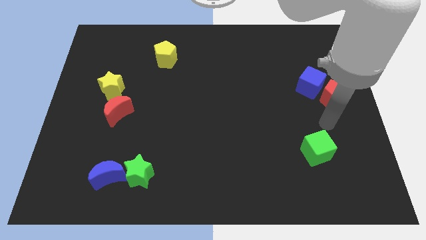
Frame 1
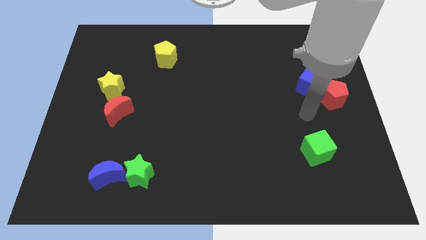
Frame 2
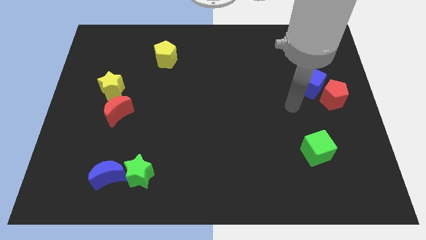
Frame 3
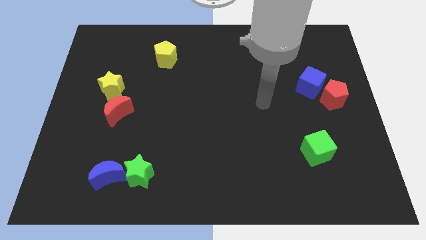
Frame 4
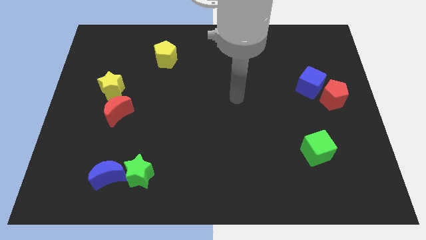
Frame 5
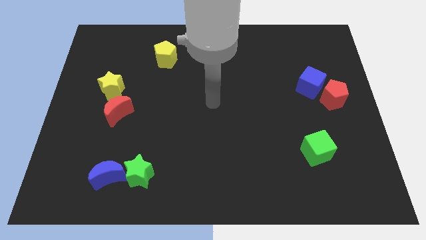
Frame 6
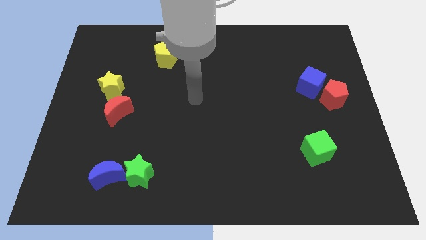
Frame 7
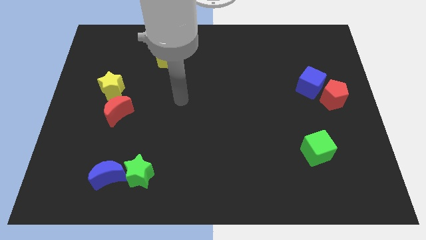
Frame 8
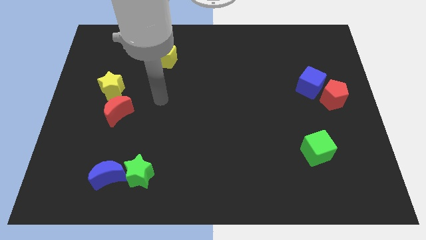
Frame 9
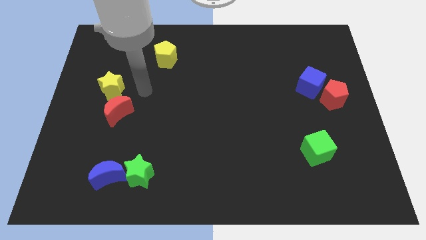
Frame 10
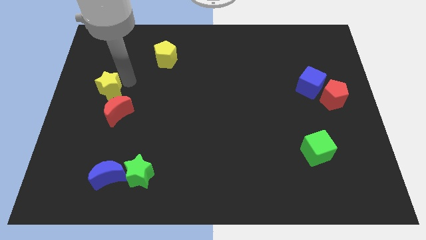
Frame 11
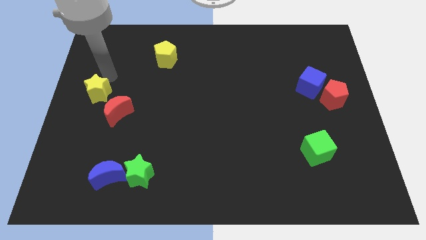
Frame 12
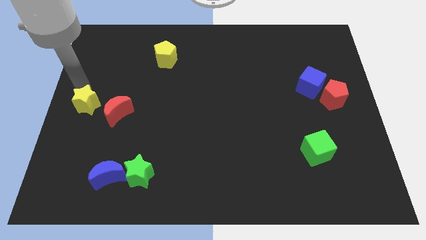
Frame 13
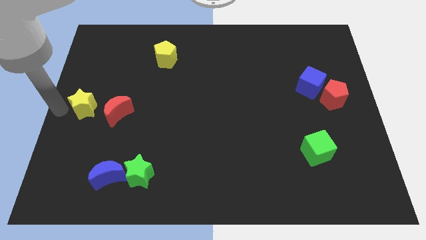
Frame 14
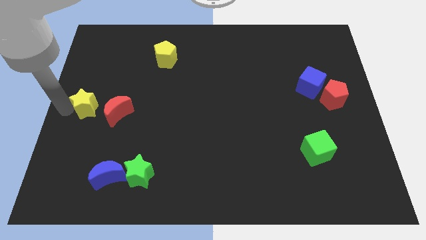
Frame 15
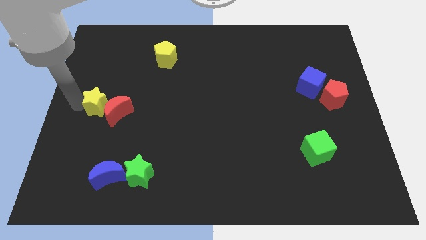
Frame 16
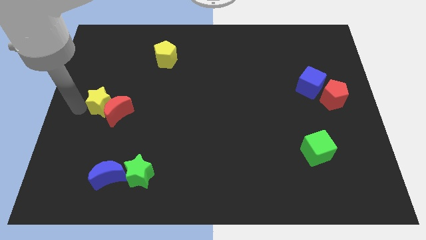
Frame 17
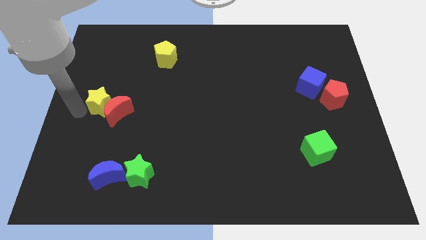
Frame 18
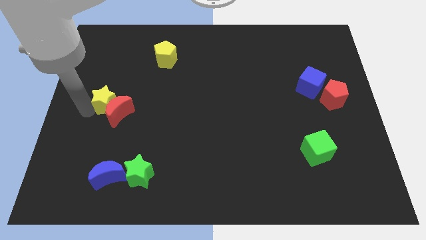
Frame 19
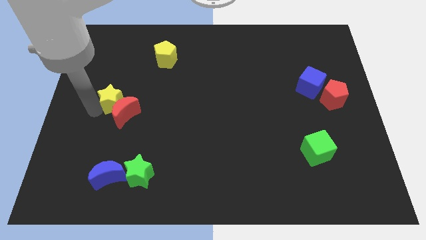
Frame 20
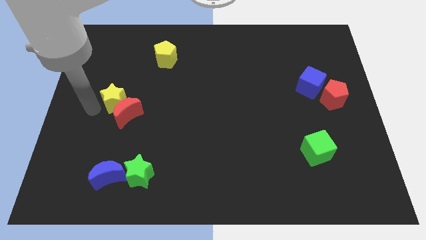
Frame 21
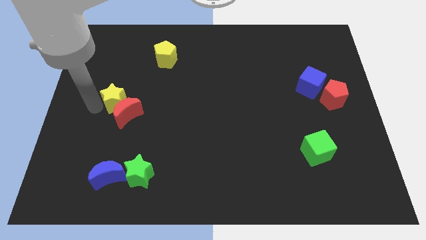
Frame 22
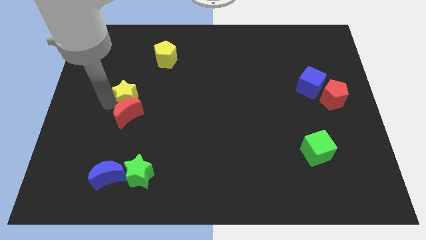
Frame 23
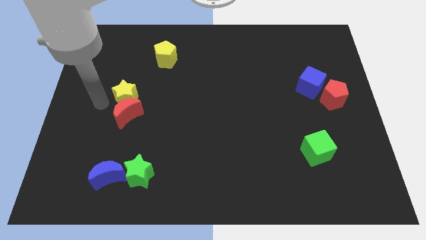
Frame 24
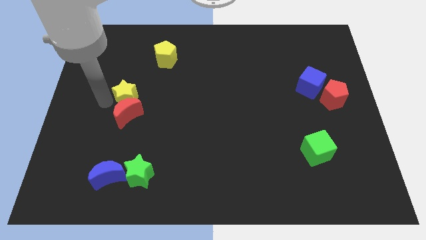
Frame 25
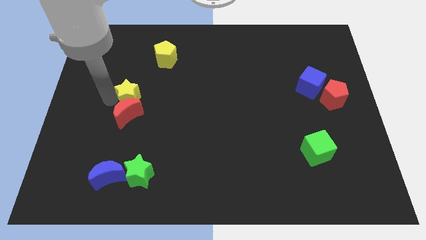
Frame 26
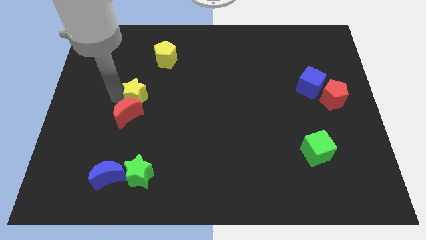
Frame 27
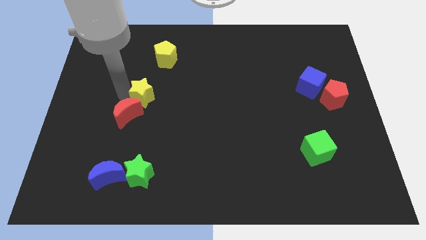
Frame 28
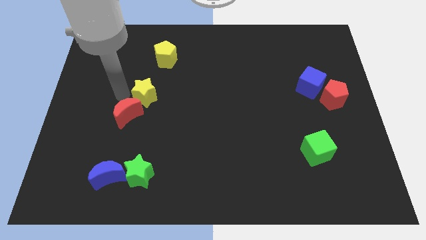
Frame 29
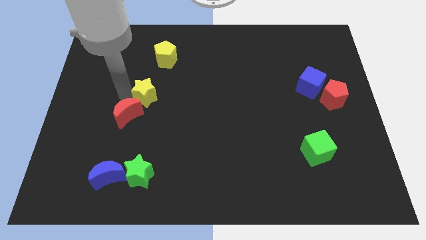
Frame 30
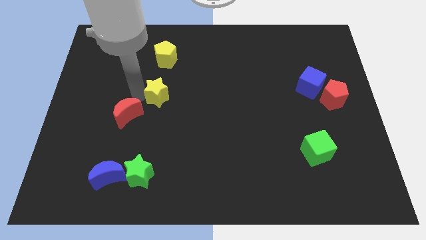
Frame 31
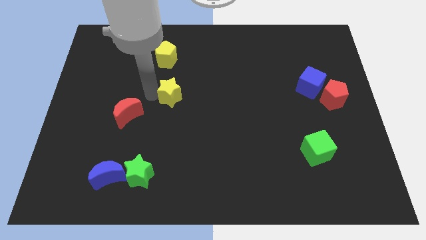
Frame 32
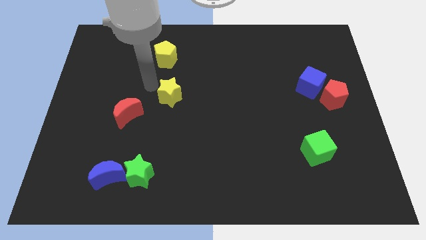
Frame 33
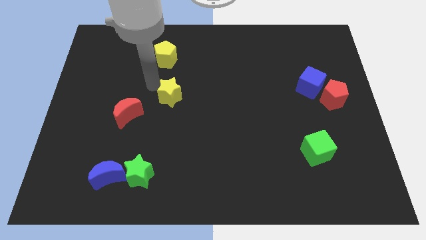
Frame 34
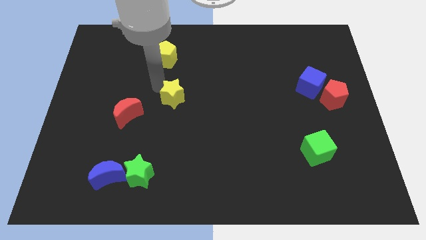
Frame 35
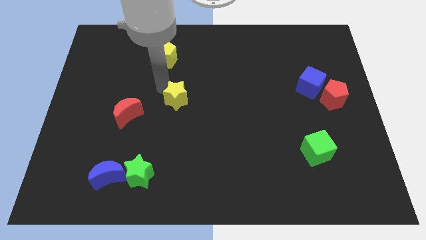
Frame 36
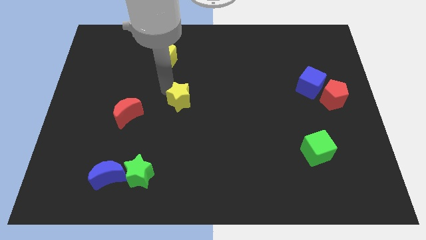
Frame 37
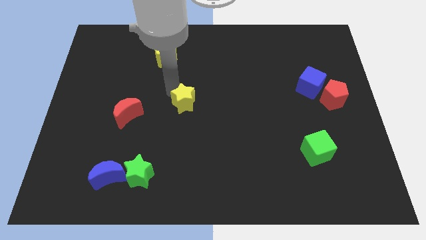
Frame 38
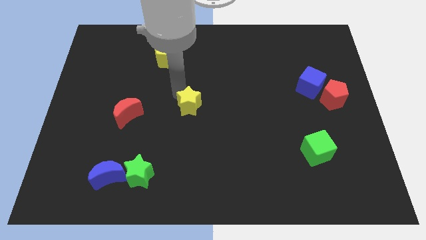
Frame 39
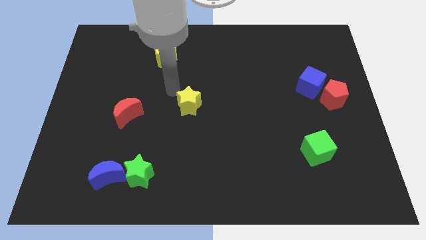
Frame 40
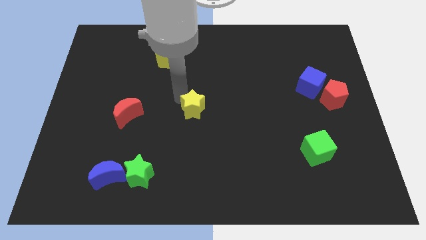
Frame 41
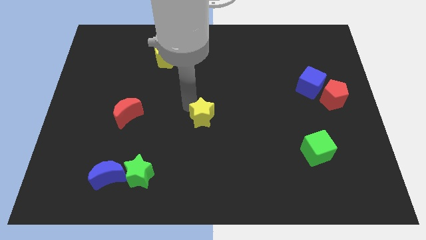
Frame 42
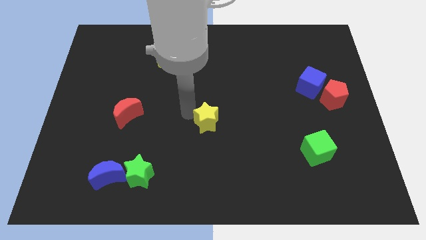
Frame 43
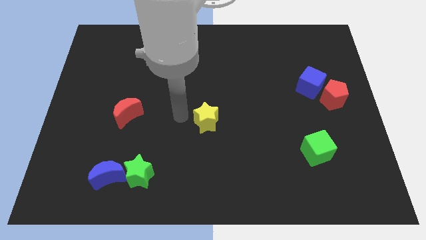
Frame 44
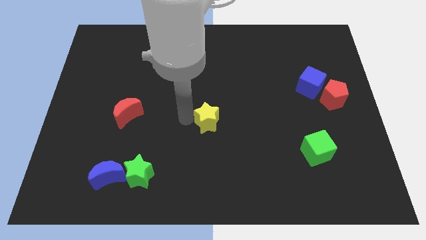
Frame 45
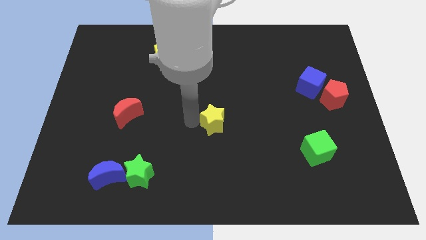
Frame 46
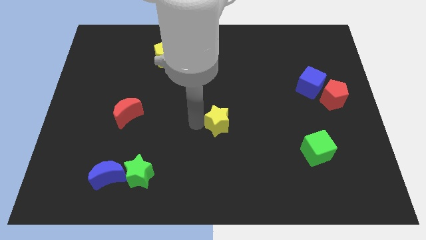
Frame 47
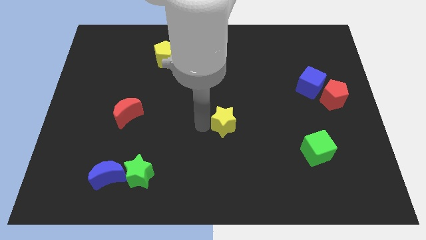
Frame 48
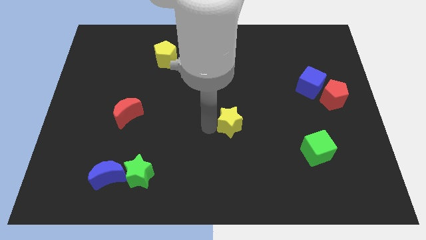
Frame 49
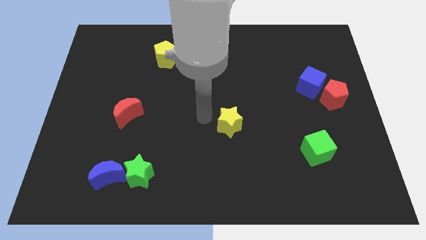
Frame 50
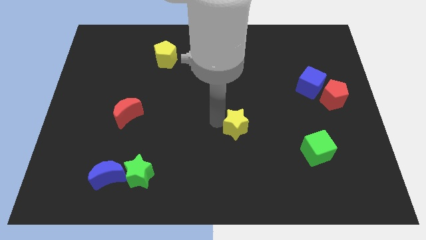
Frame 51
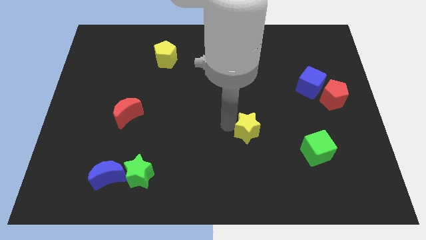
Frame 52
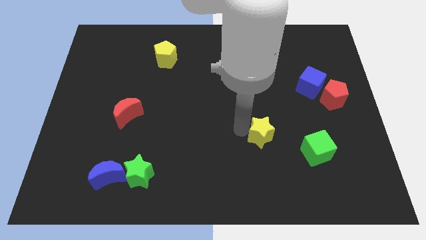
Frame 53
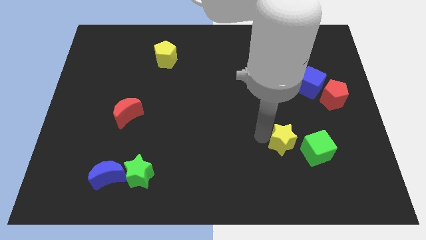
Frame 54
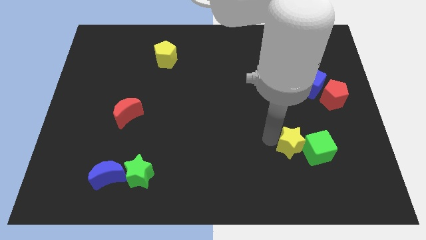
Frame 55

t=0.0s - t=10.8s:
put the yellow star towards the green cube

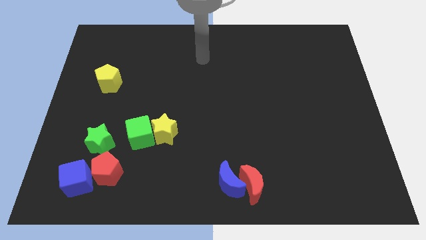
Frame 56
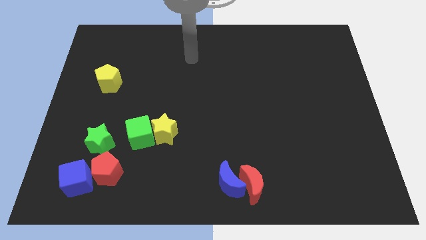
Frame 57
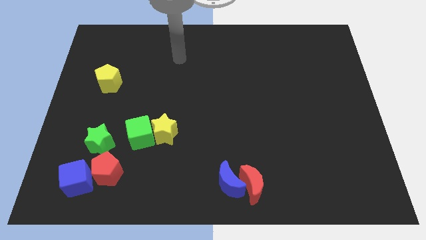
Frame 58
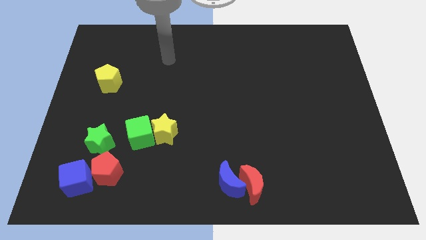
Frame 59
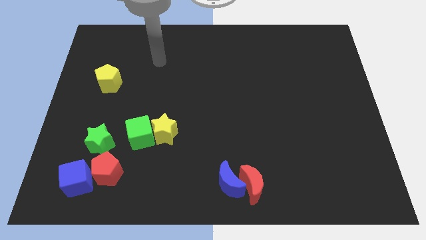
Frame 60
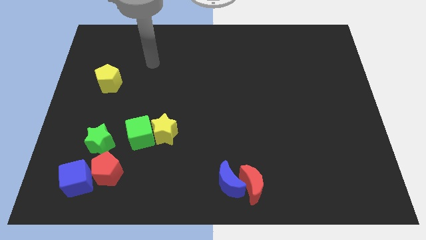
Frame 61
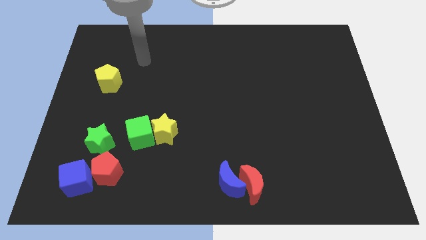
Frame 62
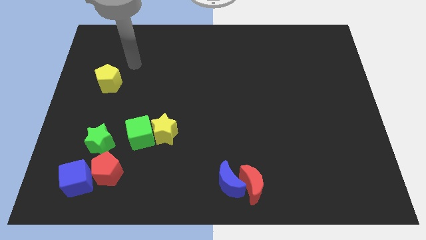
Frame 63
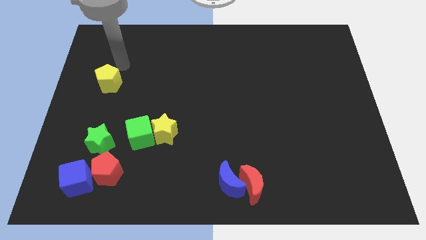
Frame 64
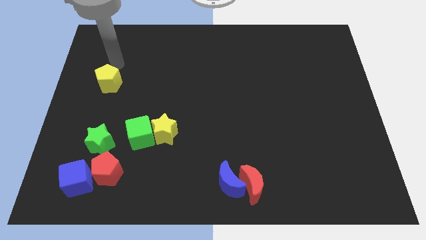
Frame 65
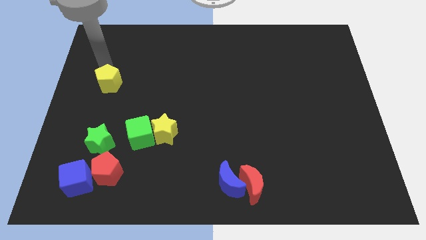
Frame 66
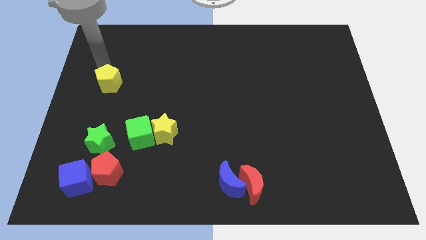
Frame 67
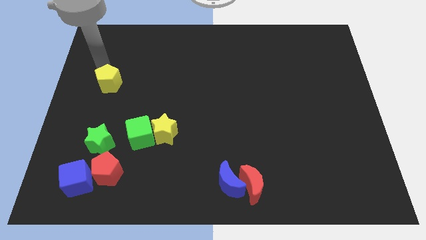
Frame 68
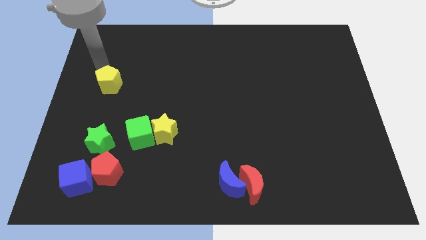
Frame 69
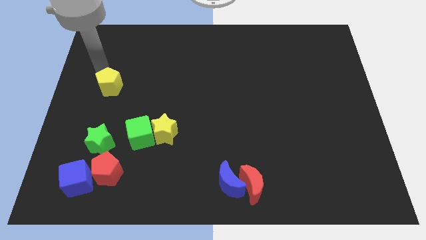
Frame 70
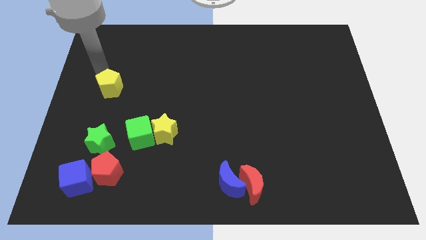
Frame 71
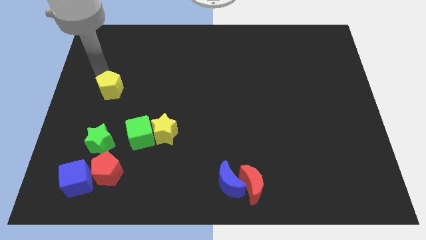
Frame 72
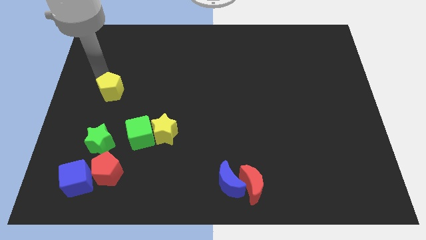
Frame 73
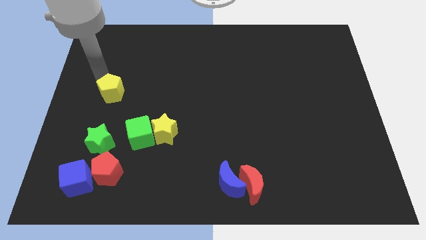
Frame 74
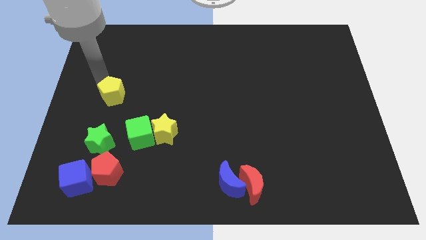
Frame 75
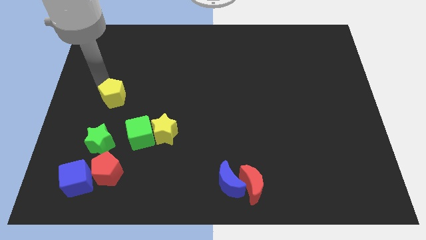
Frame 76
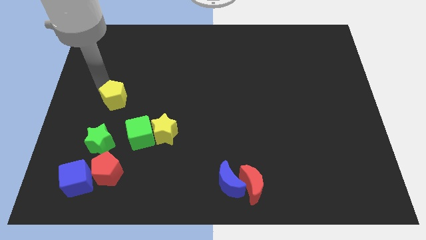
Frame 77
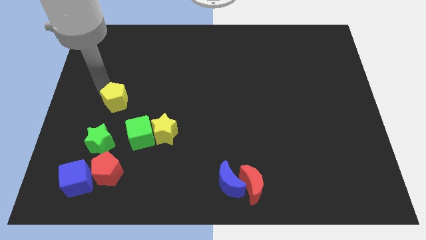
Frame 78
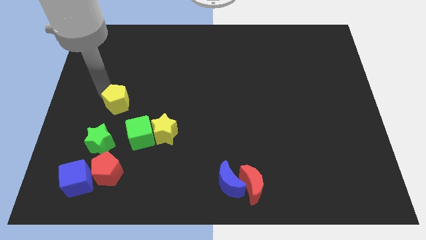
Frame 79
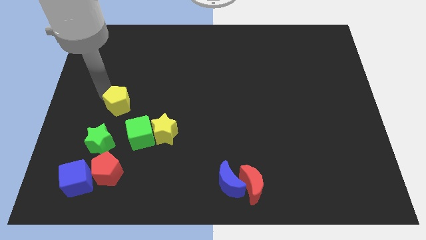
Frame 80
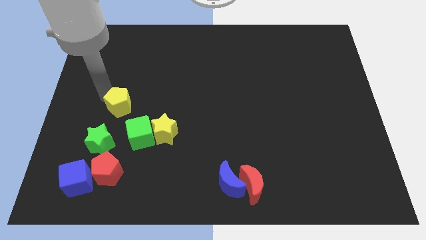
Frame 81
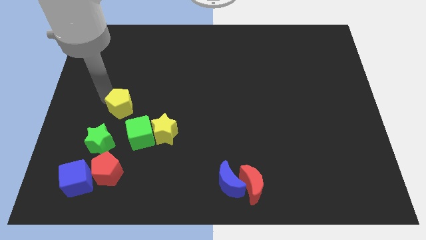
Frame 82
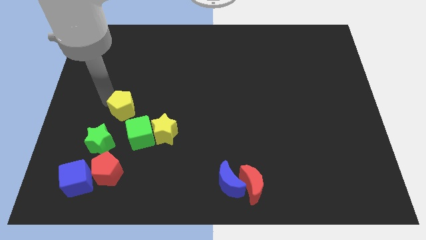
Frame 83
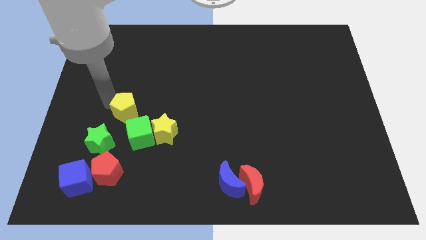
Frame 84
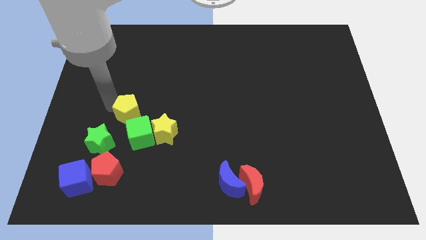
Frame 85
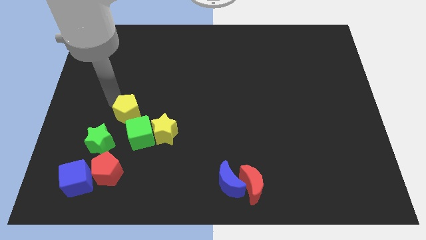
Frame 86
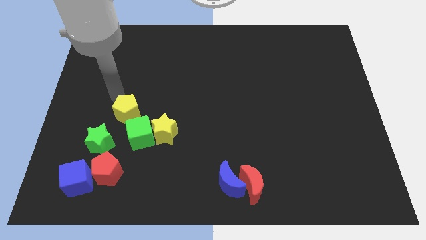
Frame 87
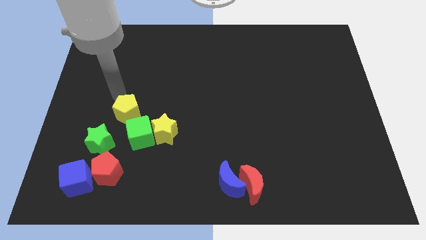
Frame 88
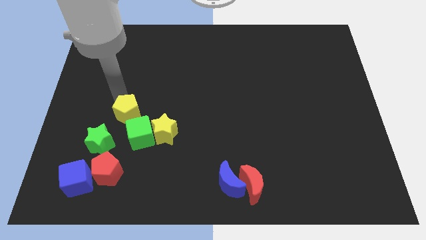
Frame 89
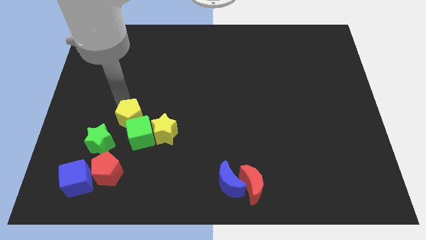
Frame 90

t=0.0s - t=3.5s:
move the yellow pentagon to the green cube
